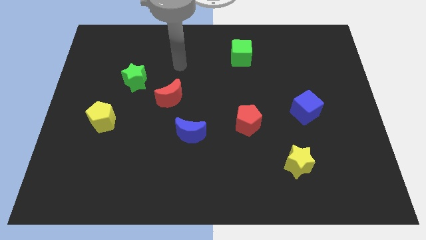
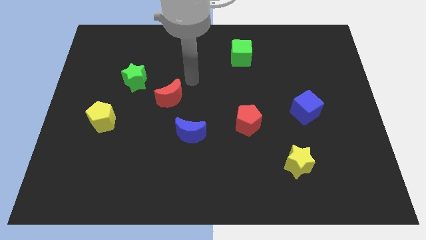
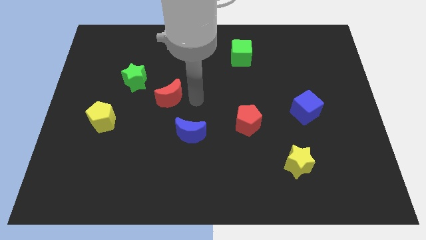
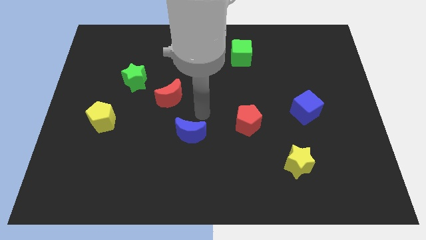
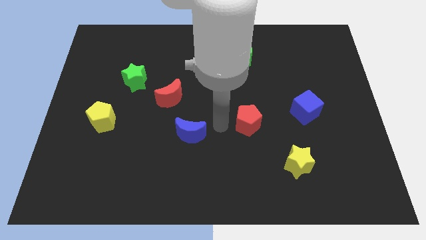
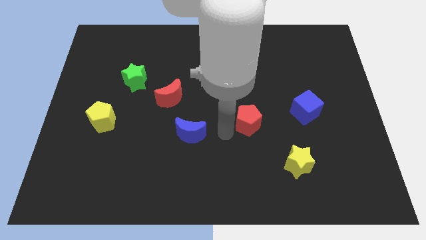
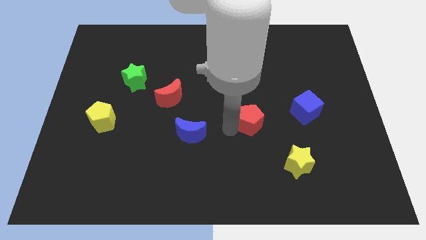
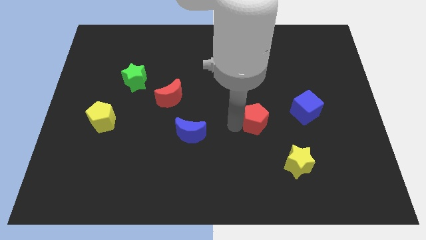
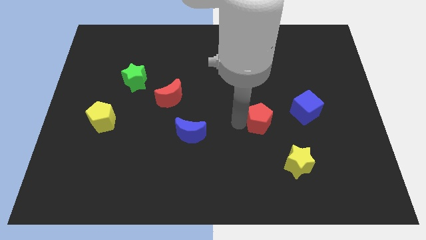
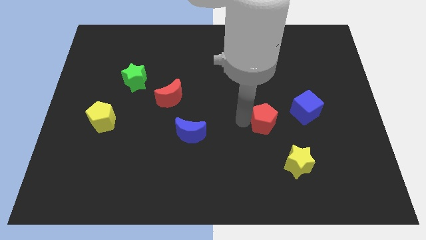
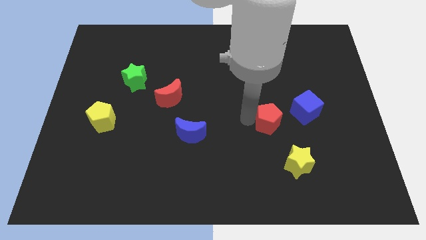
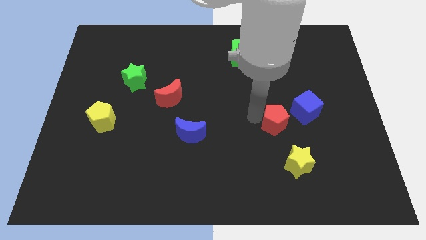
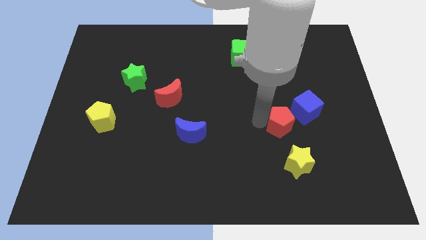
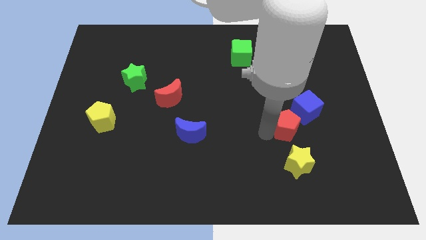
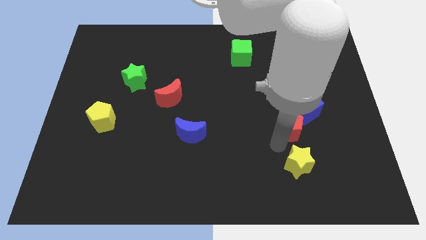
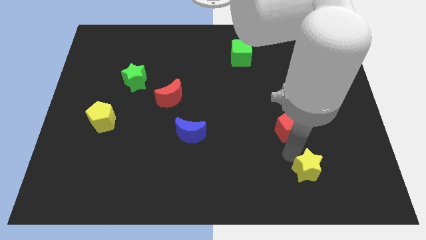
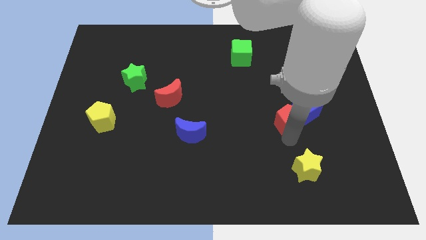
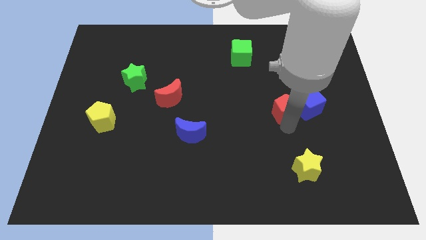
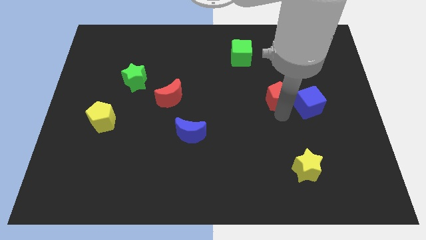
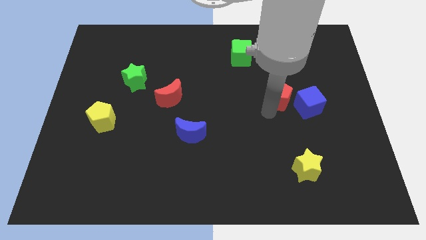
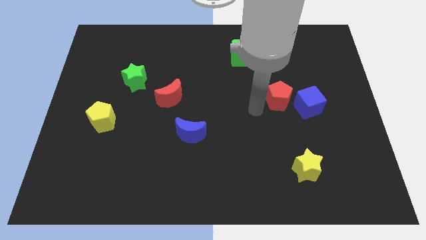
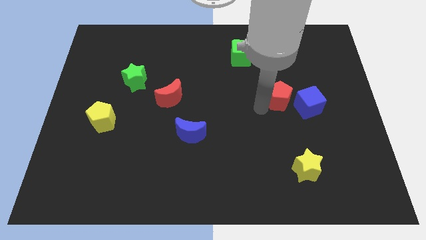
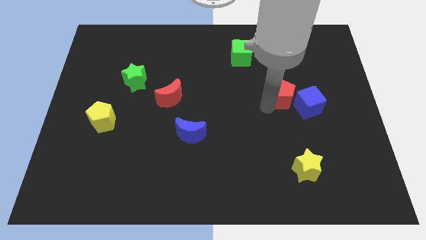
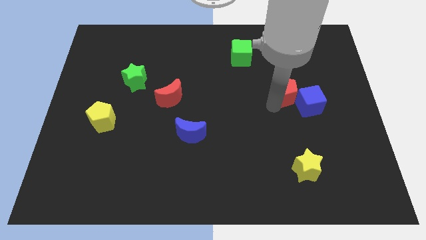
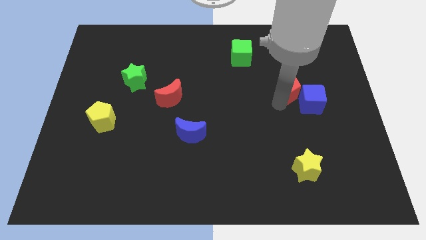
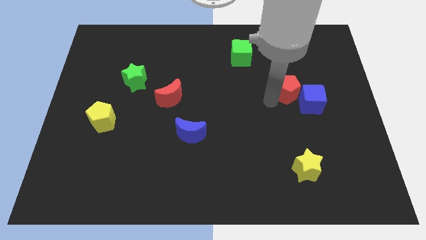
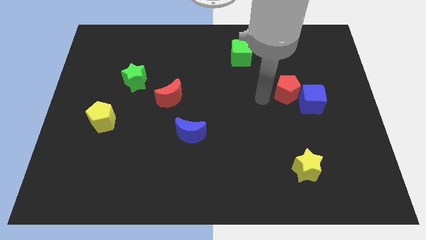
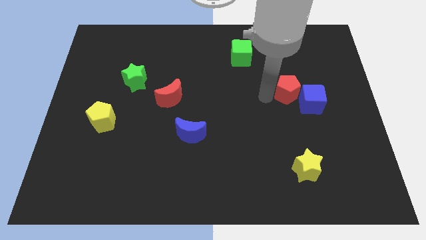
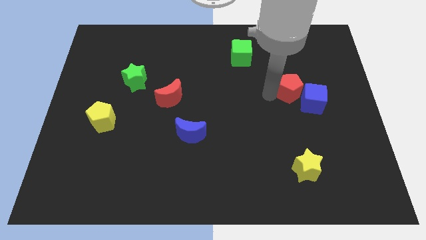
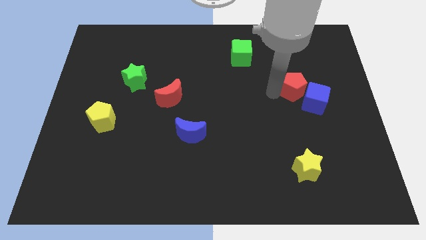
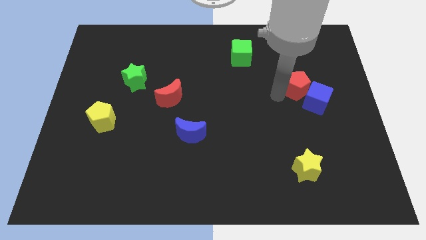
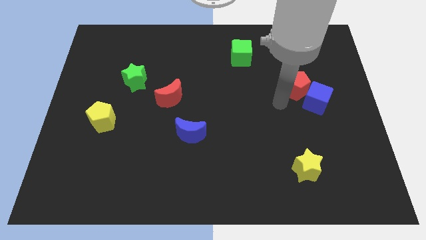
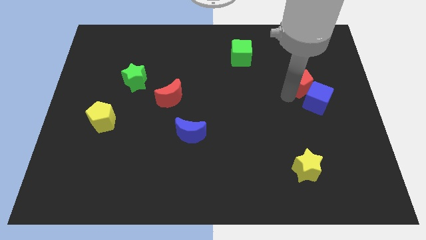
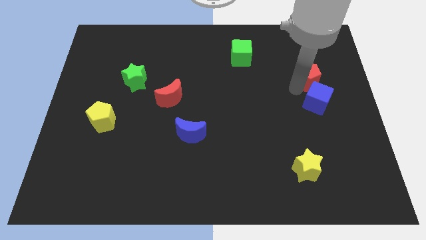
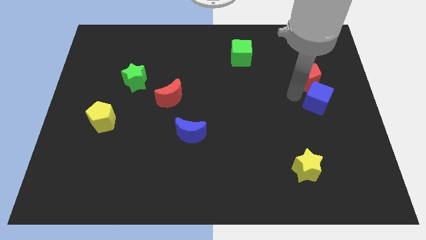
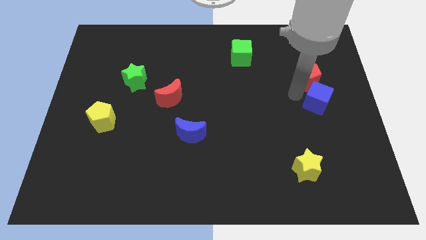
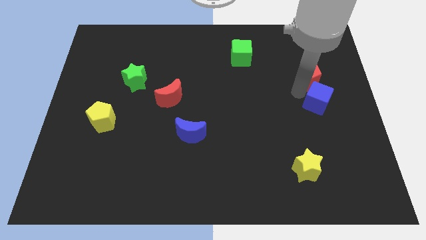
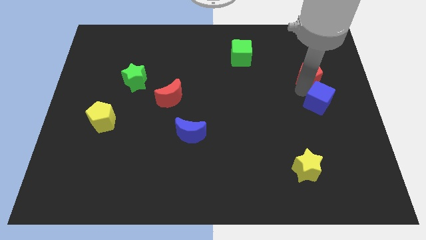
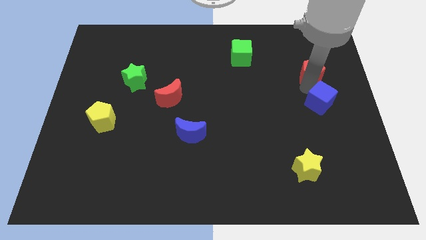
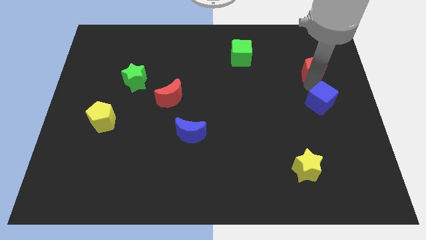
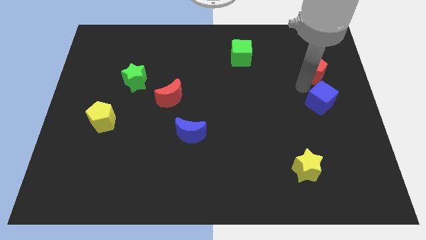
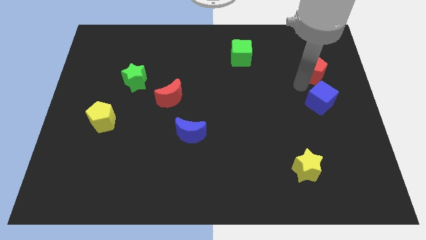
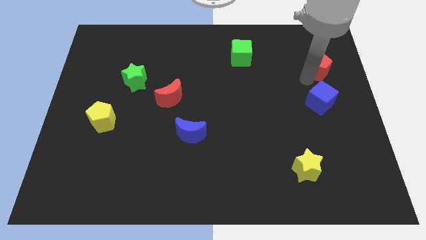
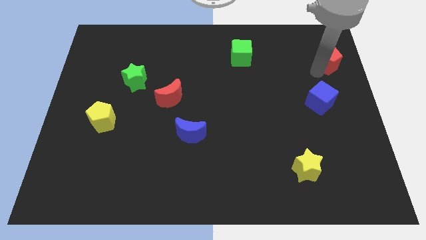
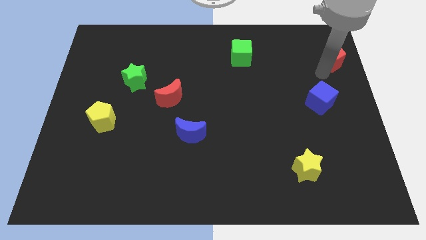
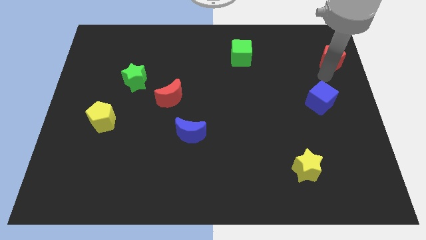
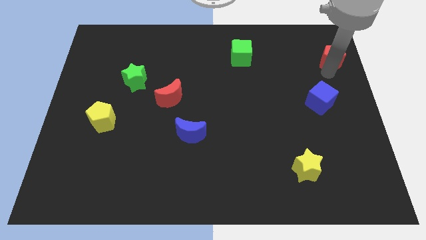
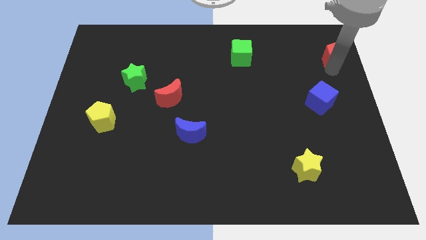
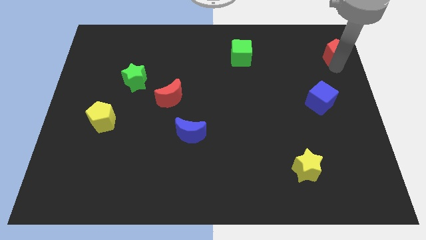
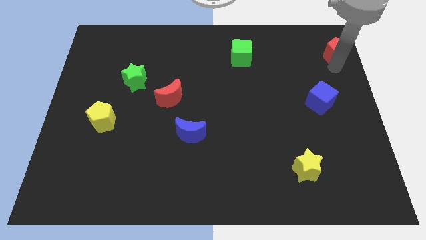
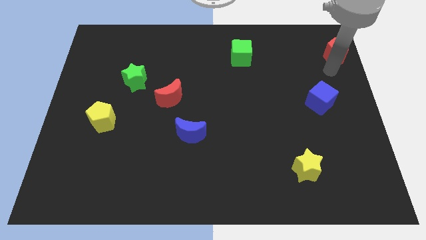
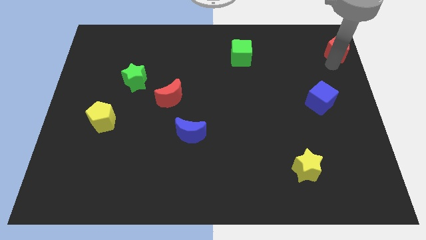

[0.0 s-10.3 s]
put the red pentagon to the top right of the board

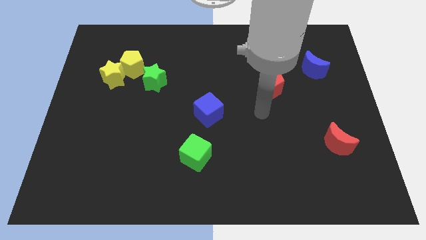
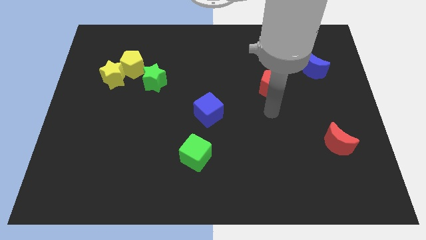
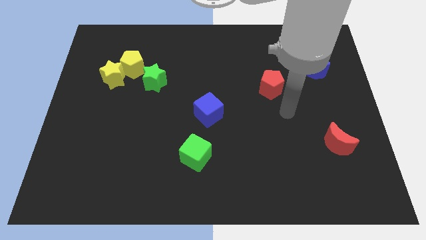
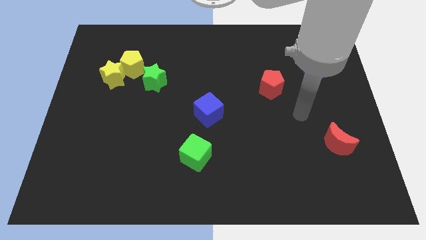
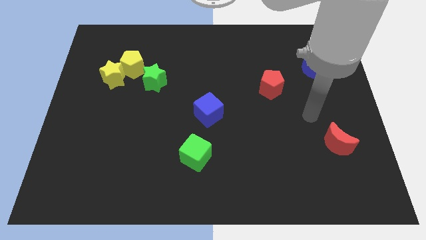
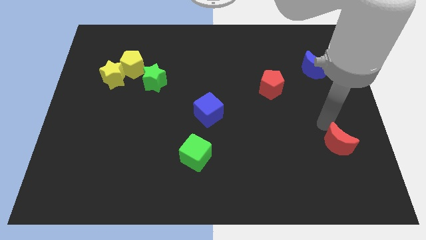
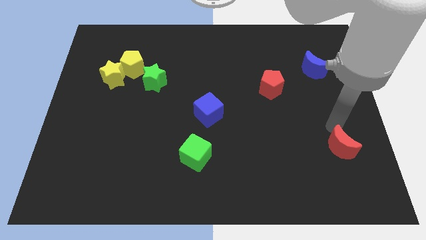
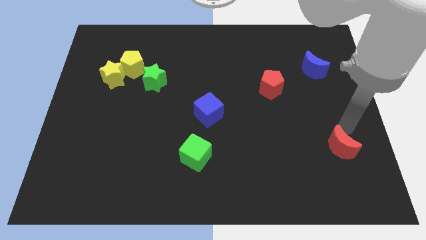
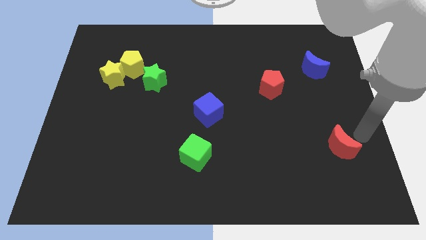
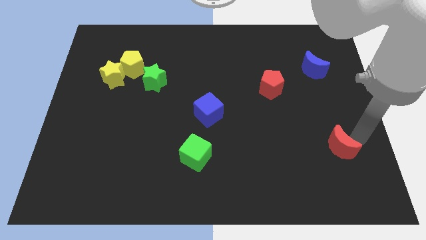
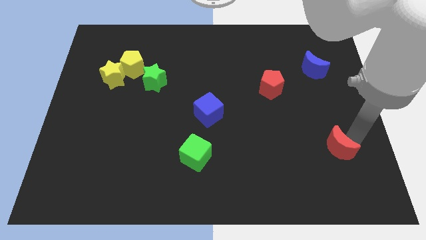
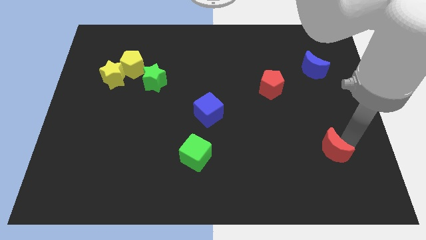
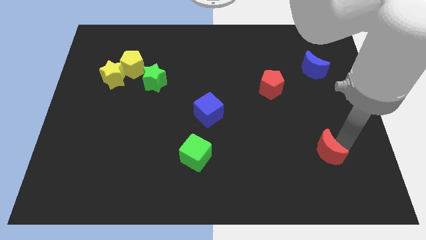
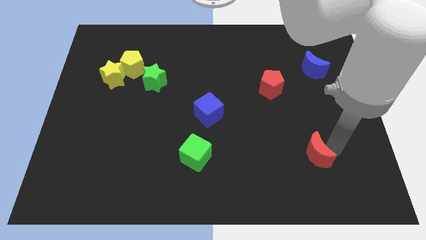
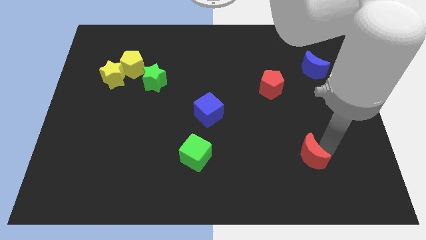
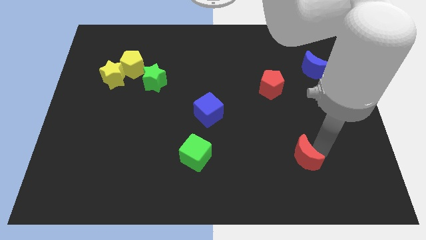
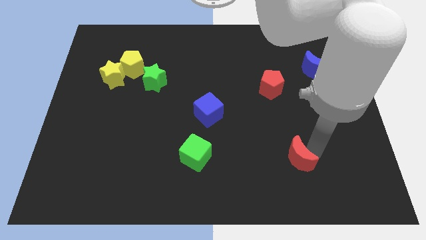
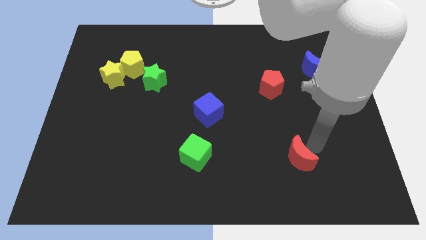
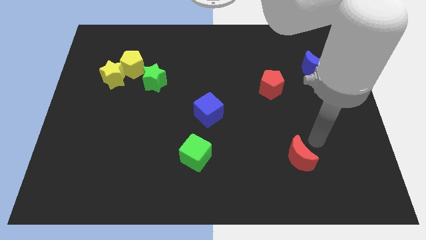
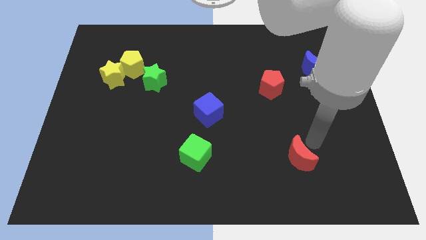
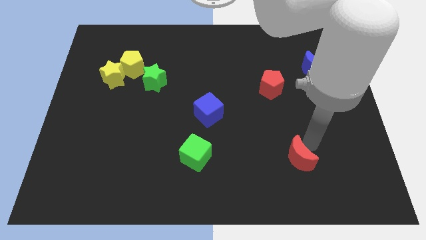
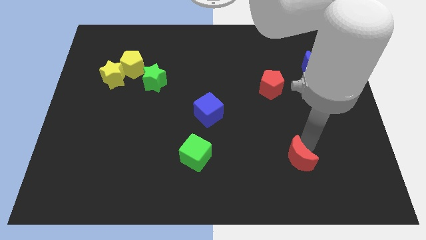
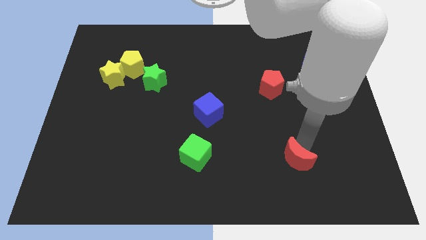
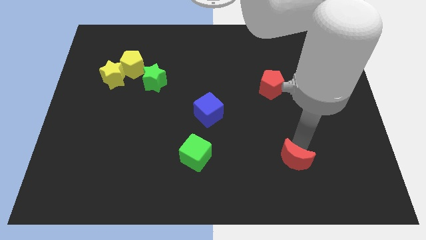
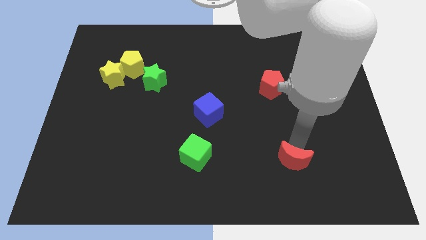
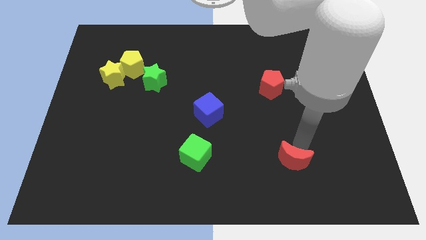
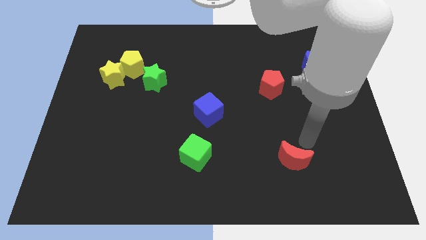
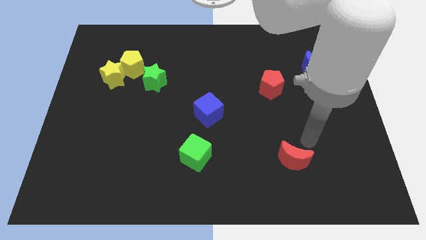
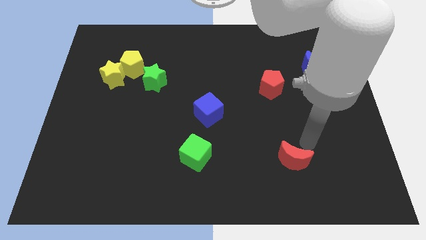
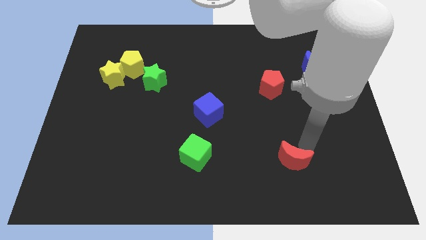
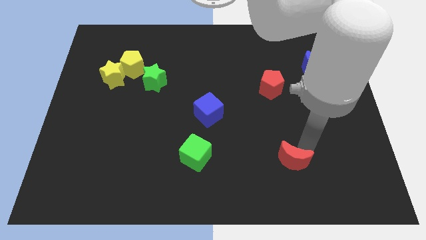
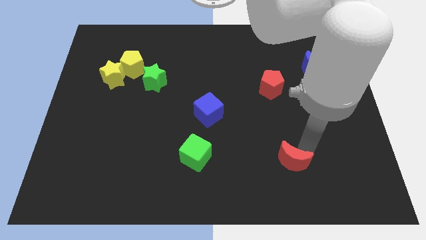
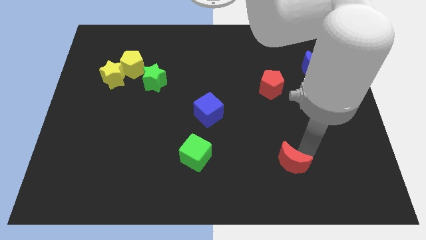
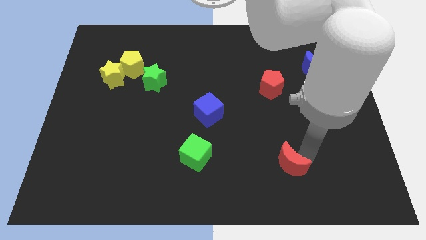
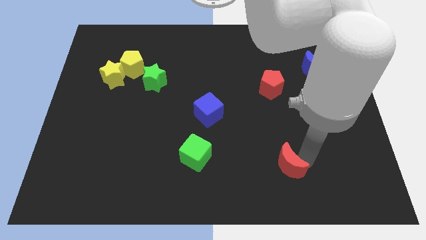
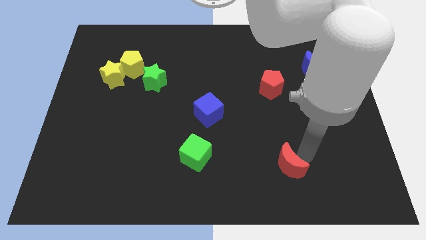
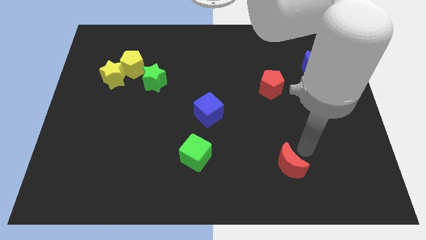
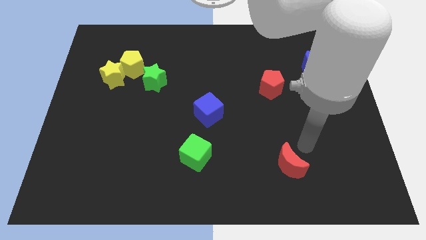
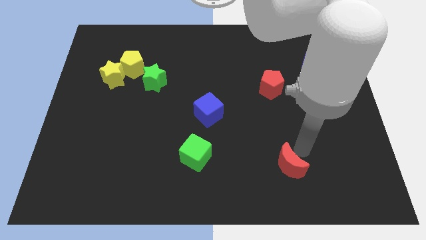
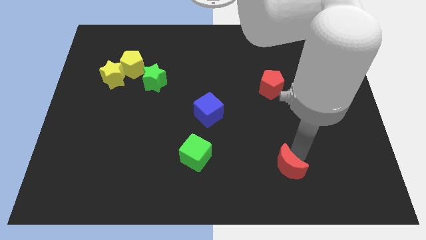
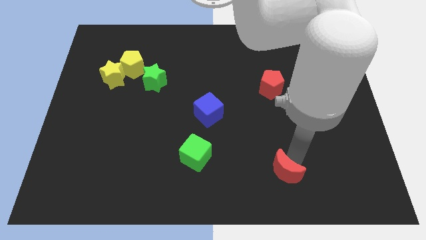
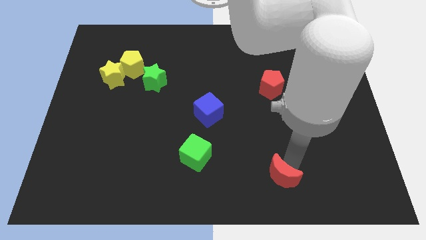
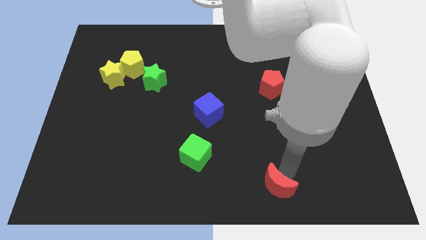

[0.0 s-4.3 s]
put the red moon to the bottom
